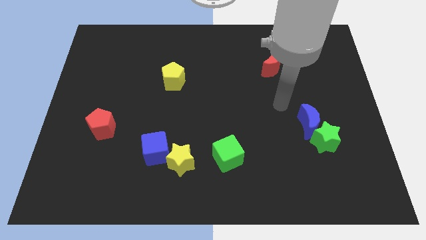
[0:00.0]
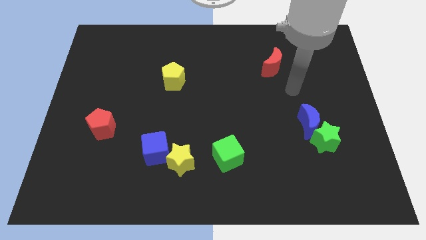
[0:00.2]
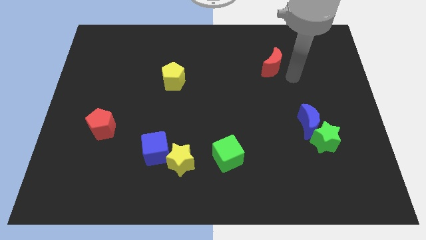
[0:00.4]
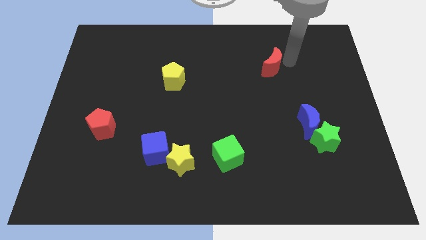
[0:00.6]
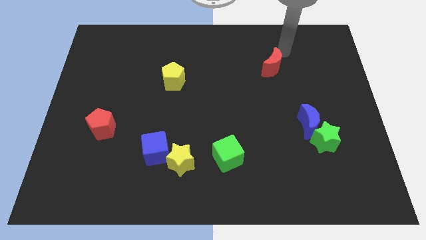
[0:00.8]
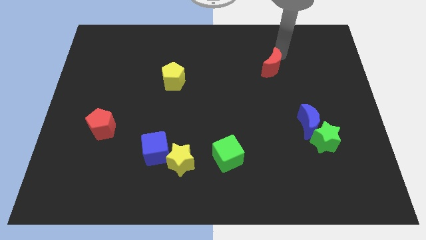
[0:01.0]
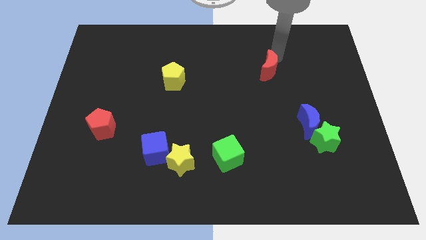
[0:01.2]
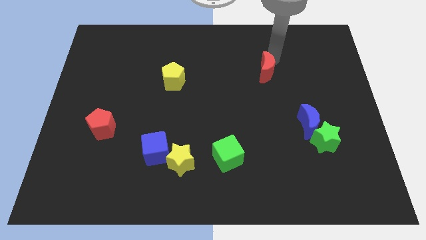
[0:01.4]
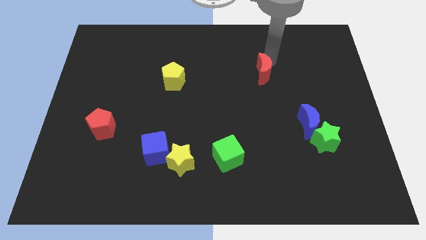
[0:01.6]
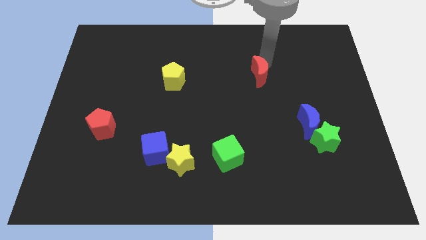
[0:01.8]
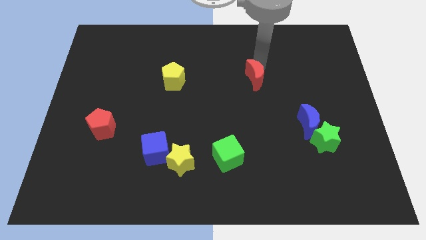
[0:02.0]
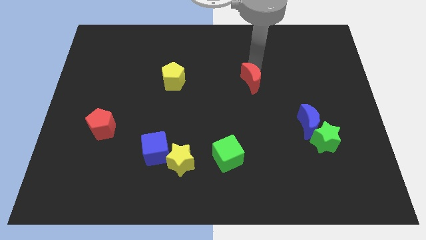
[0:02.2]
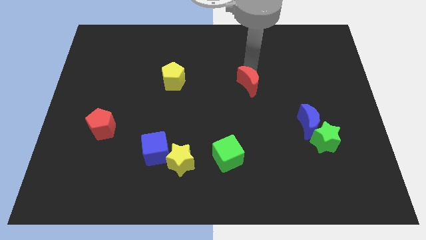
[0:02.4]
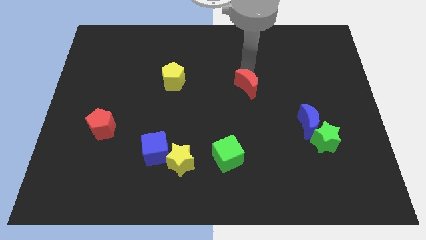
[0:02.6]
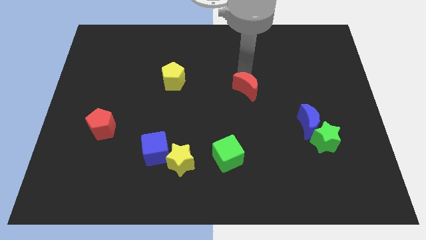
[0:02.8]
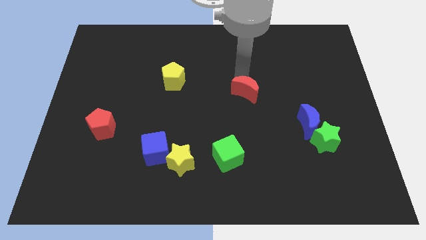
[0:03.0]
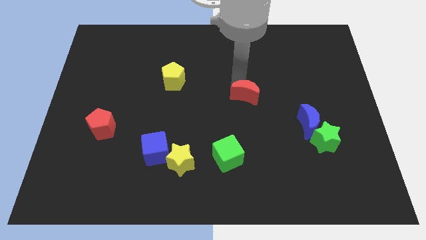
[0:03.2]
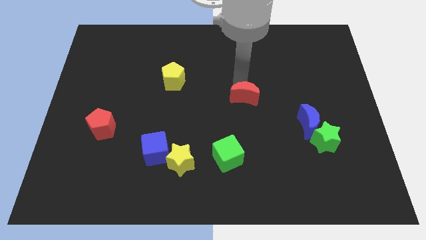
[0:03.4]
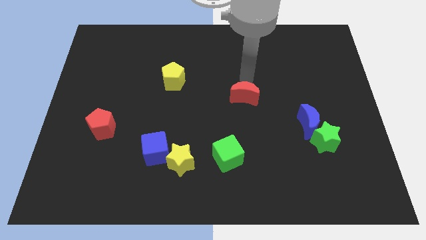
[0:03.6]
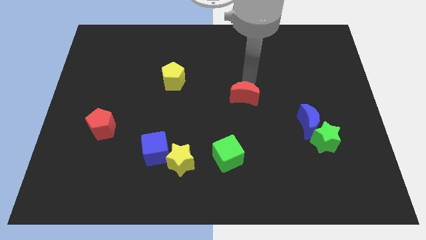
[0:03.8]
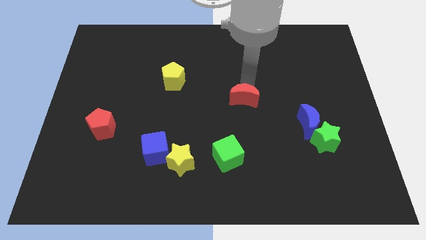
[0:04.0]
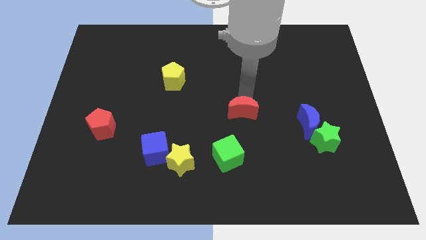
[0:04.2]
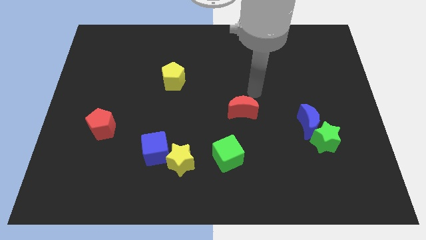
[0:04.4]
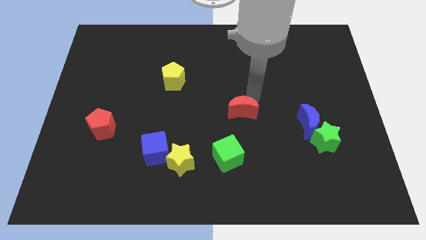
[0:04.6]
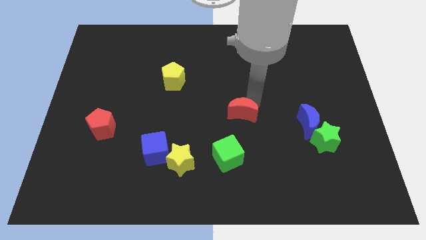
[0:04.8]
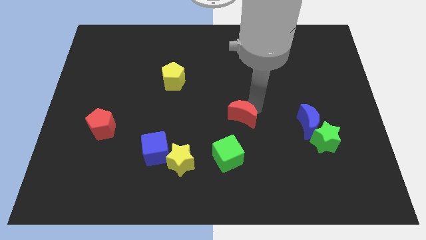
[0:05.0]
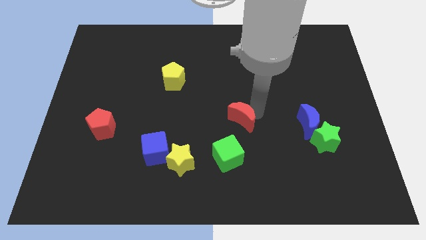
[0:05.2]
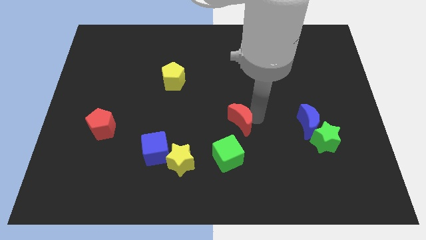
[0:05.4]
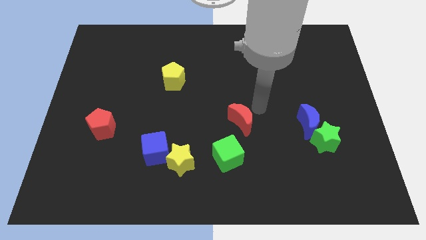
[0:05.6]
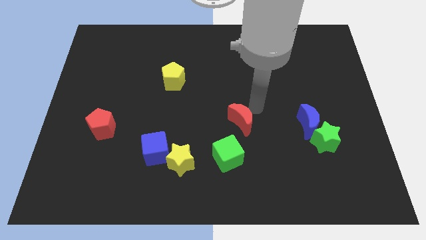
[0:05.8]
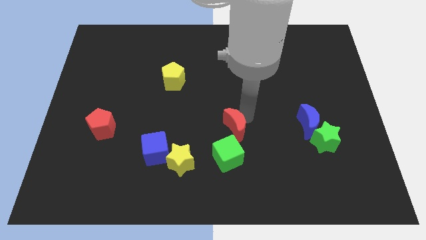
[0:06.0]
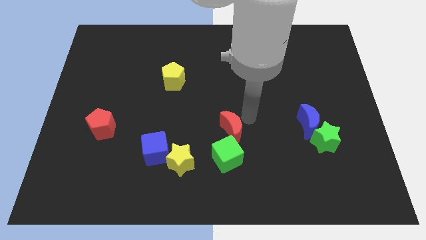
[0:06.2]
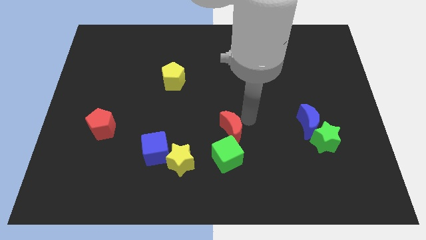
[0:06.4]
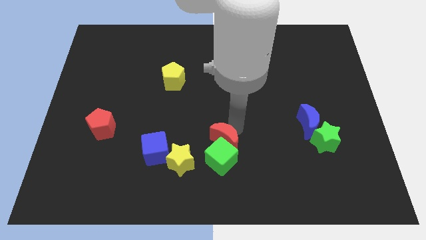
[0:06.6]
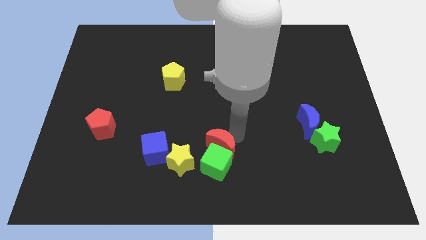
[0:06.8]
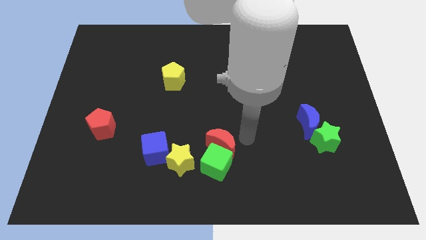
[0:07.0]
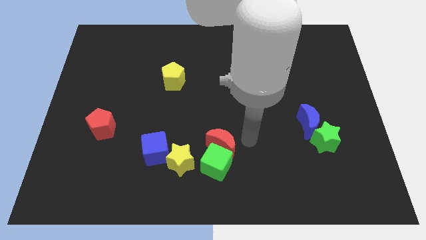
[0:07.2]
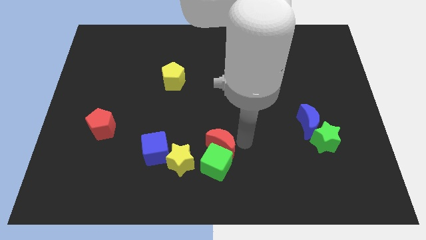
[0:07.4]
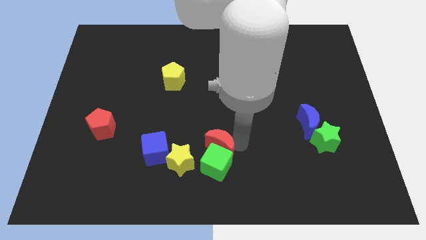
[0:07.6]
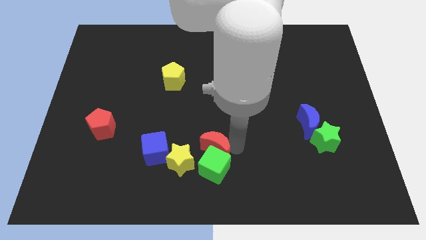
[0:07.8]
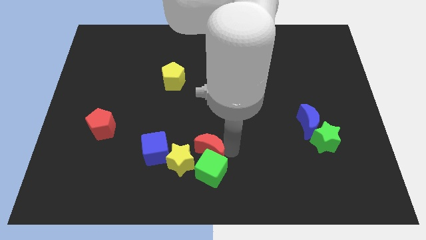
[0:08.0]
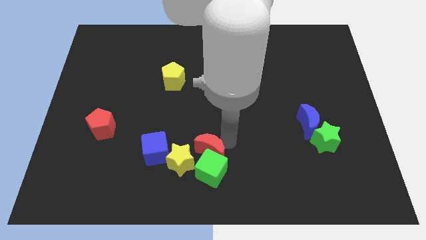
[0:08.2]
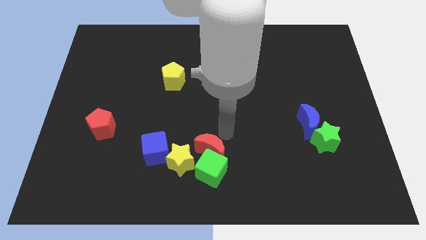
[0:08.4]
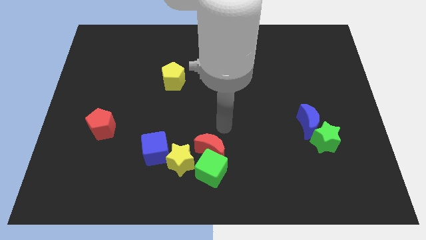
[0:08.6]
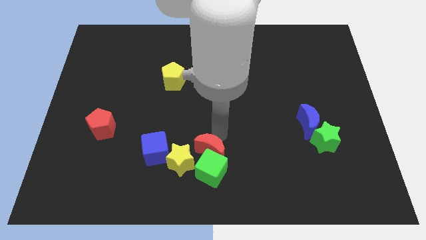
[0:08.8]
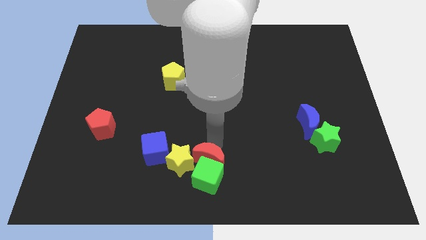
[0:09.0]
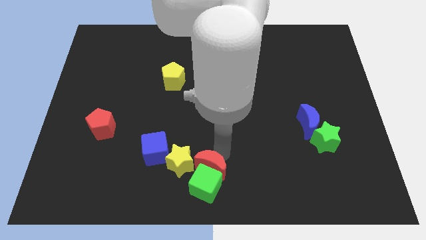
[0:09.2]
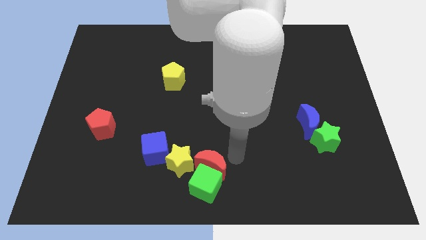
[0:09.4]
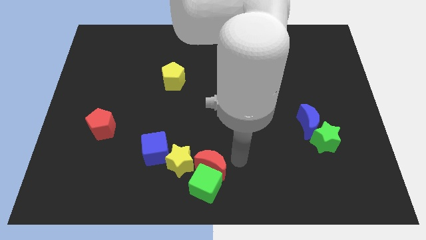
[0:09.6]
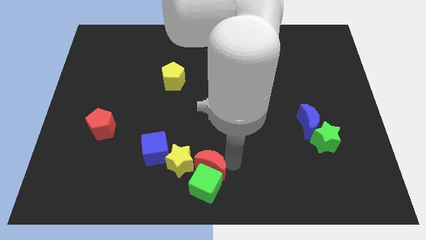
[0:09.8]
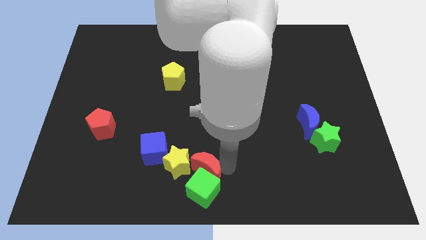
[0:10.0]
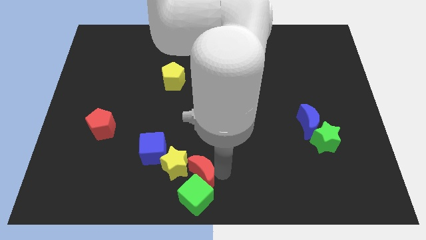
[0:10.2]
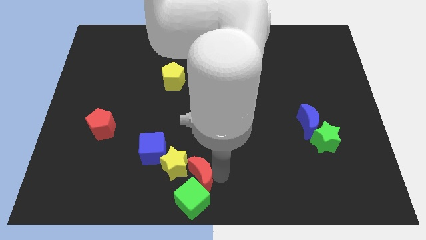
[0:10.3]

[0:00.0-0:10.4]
push the red moon to the bottom right side of the blue cube

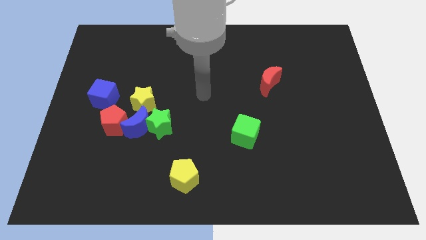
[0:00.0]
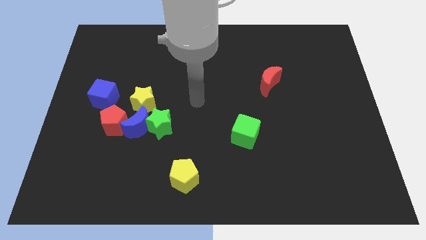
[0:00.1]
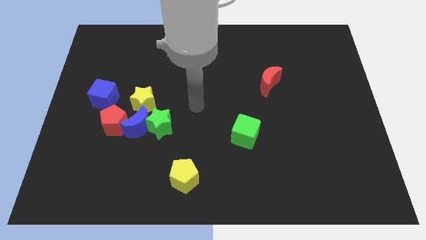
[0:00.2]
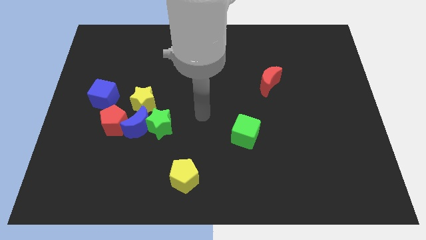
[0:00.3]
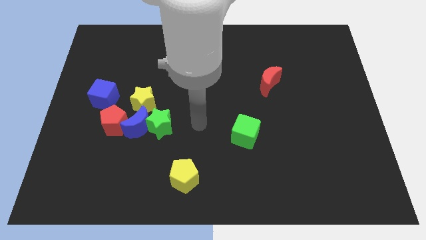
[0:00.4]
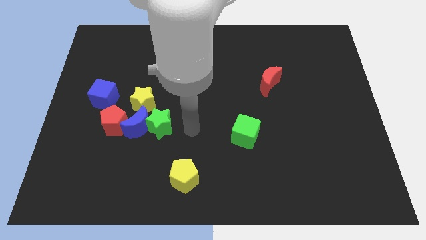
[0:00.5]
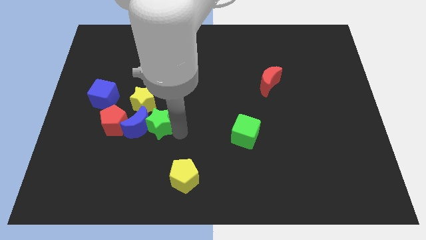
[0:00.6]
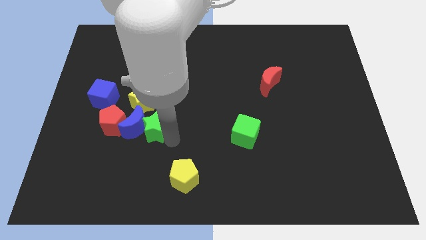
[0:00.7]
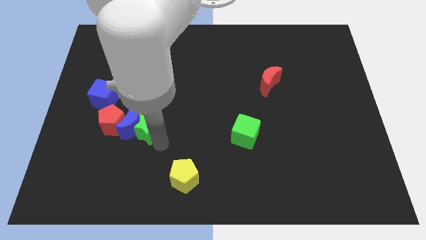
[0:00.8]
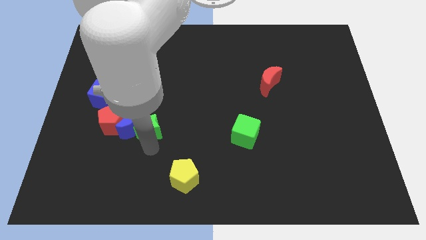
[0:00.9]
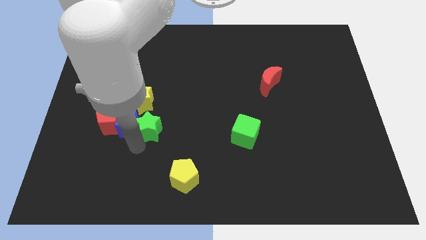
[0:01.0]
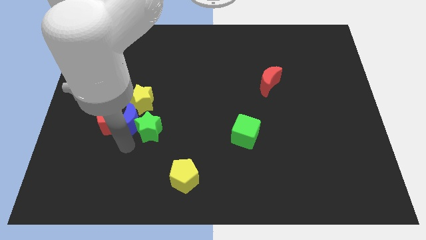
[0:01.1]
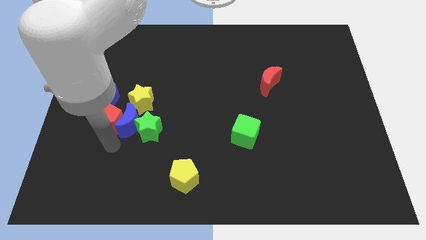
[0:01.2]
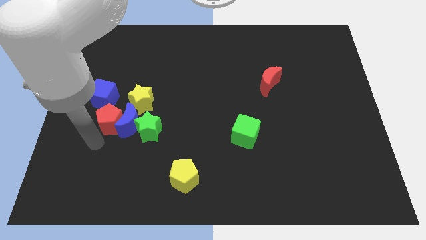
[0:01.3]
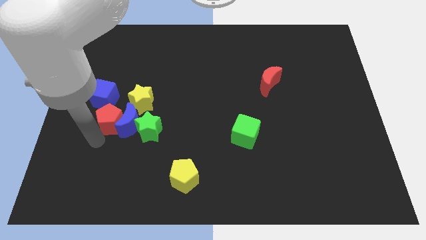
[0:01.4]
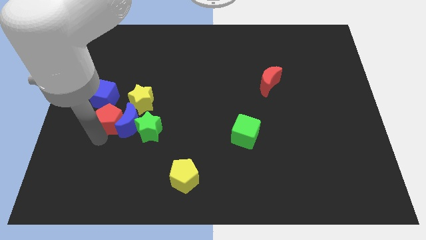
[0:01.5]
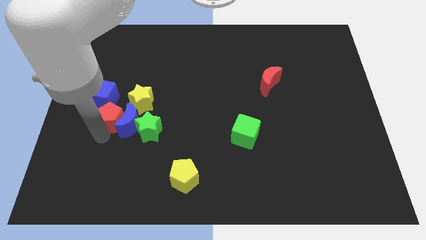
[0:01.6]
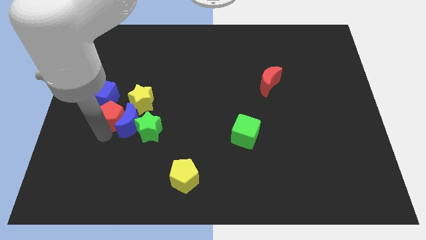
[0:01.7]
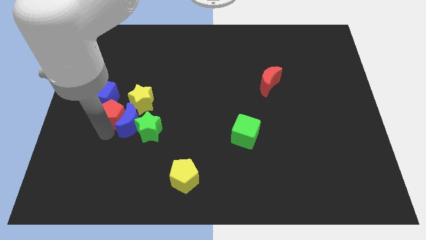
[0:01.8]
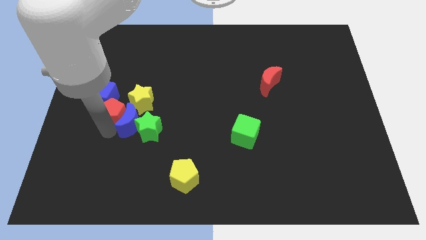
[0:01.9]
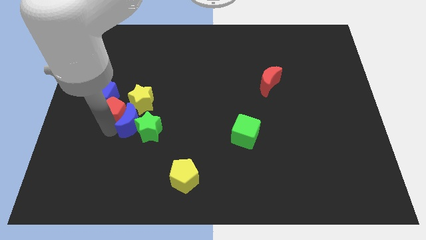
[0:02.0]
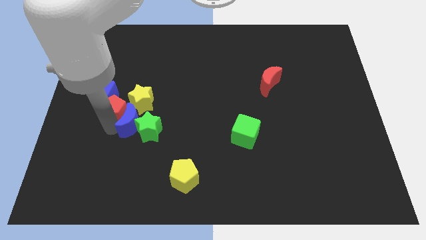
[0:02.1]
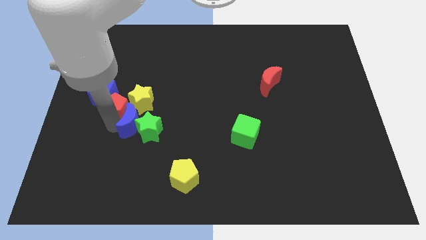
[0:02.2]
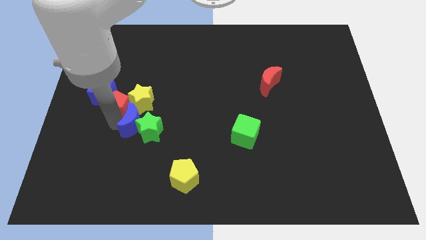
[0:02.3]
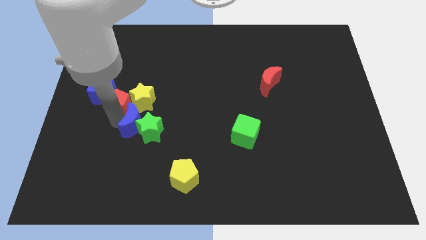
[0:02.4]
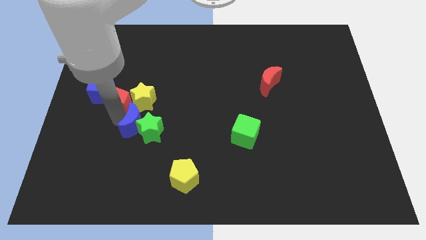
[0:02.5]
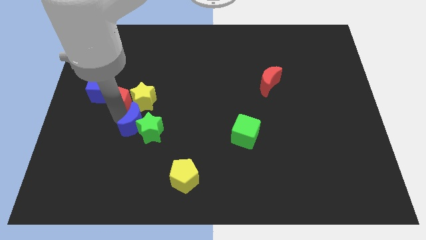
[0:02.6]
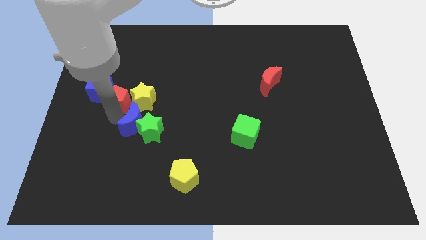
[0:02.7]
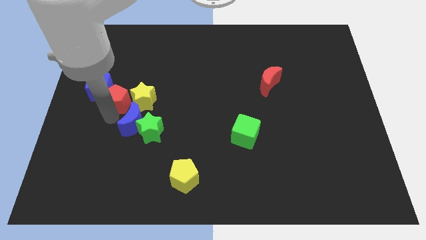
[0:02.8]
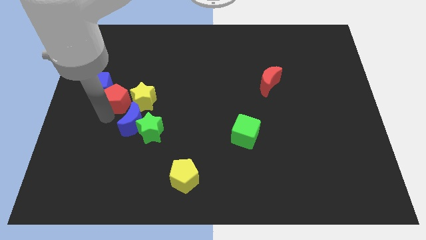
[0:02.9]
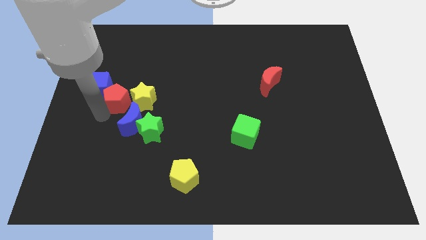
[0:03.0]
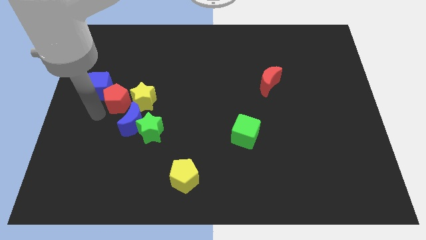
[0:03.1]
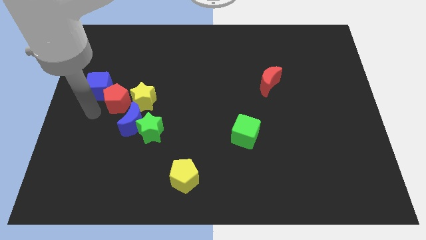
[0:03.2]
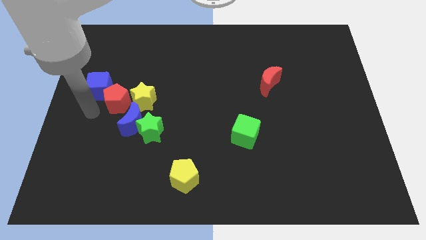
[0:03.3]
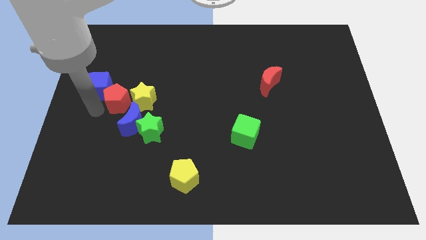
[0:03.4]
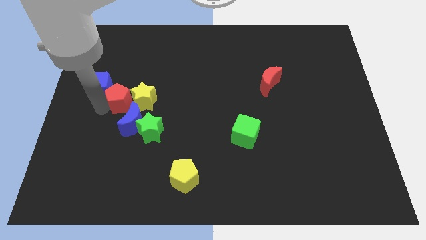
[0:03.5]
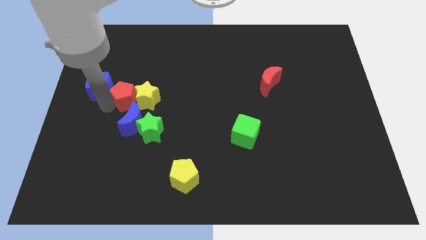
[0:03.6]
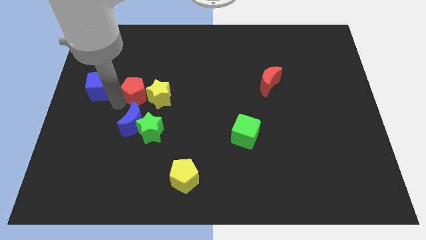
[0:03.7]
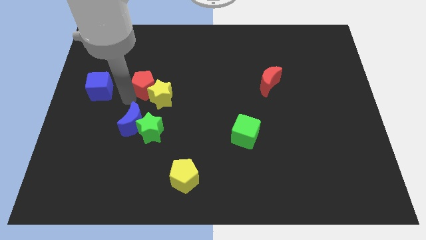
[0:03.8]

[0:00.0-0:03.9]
push the red pentagon to the top side of the yellow star
